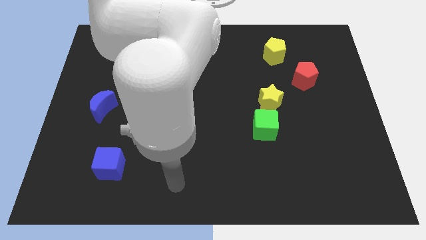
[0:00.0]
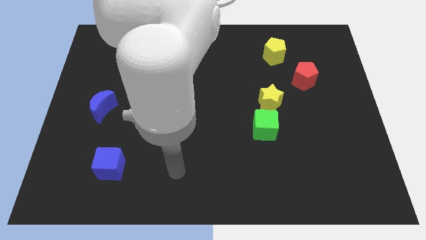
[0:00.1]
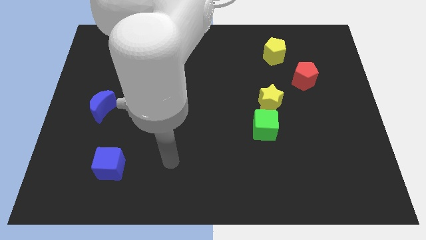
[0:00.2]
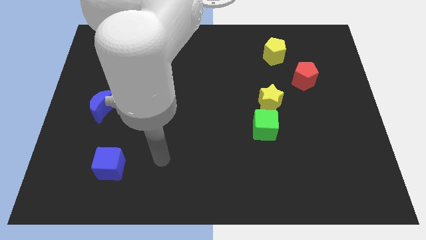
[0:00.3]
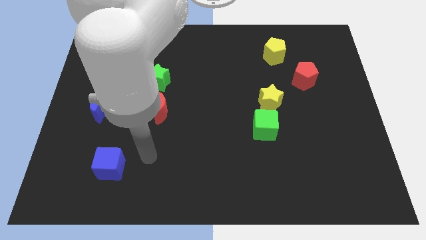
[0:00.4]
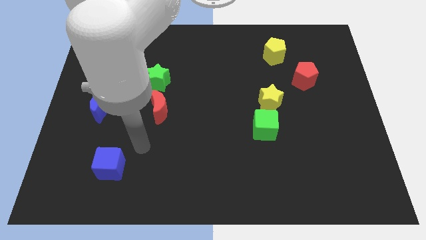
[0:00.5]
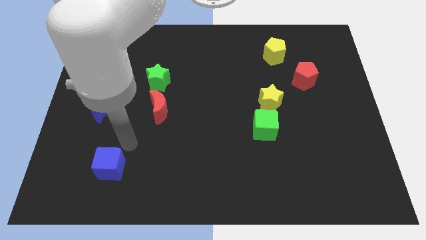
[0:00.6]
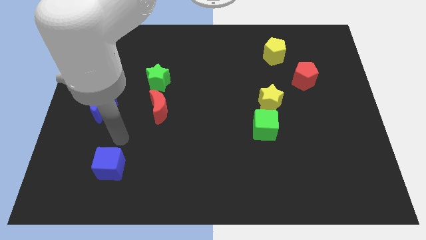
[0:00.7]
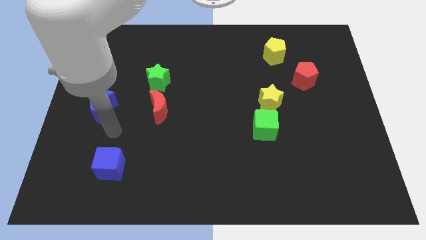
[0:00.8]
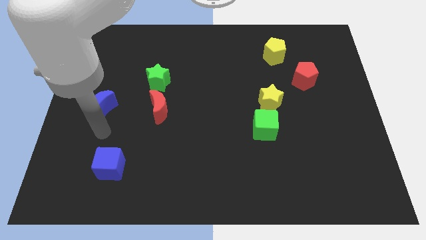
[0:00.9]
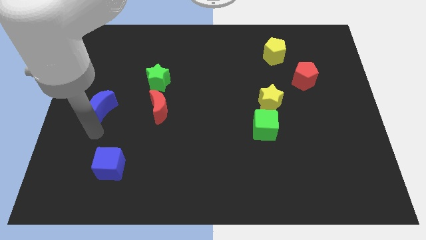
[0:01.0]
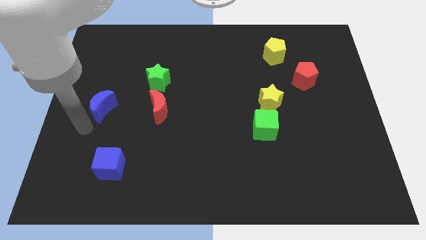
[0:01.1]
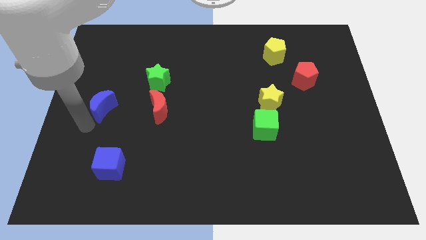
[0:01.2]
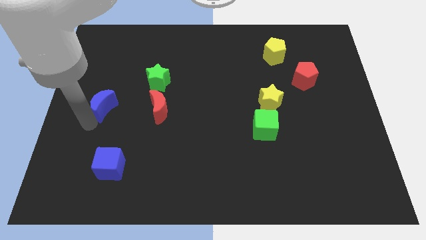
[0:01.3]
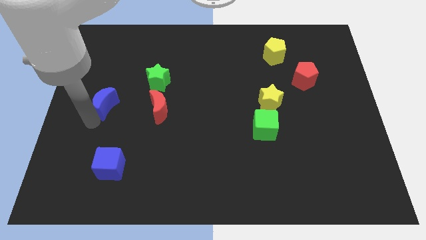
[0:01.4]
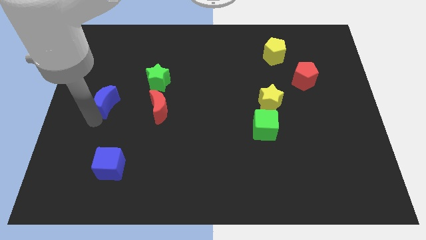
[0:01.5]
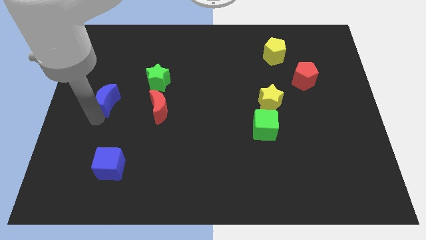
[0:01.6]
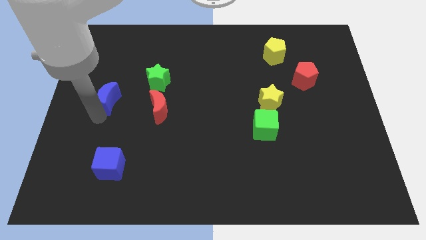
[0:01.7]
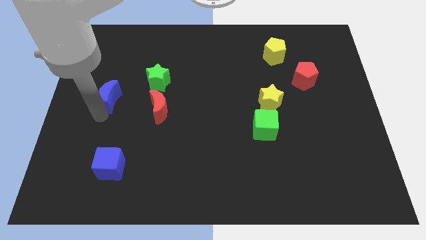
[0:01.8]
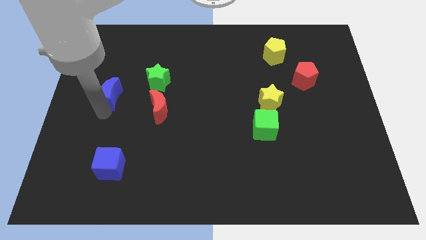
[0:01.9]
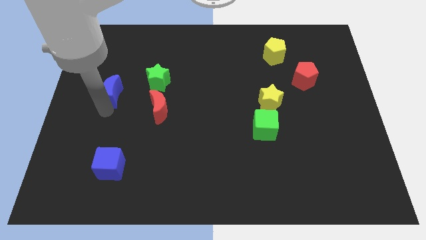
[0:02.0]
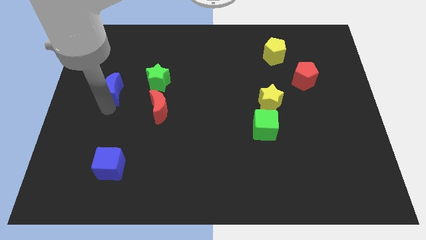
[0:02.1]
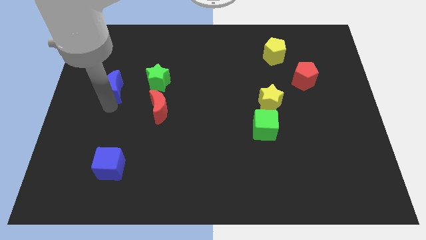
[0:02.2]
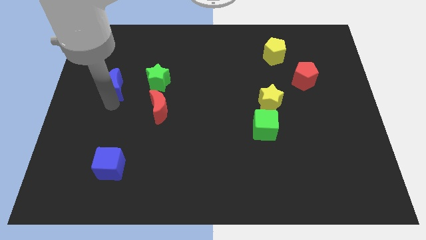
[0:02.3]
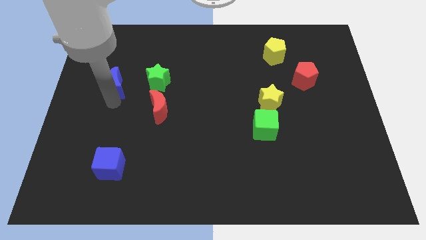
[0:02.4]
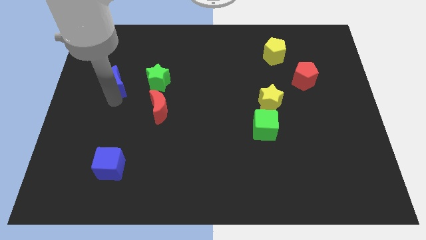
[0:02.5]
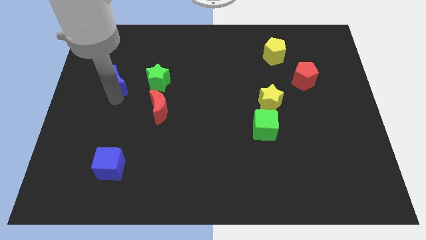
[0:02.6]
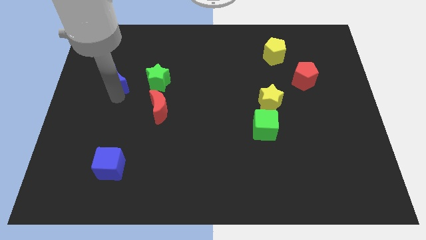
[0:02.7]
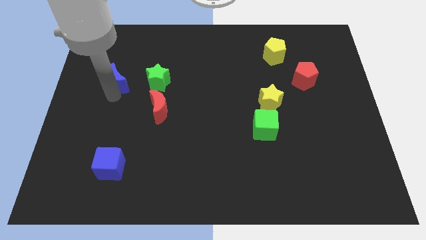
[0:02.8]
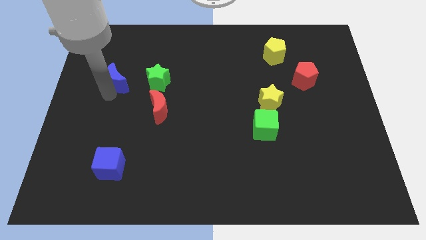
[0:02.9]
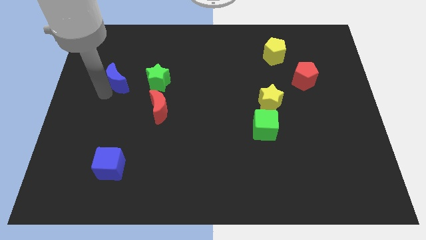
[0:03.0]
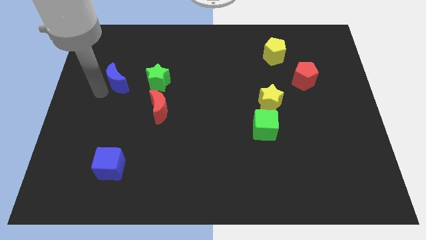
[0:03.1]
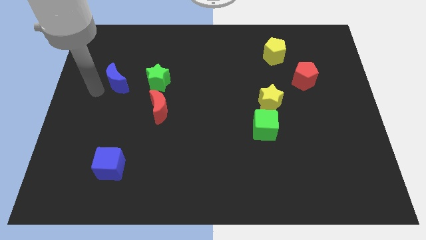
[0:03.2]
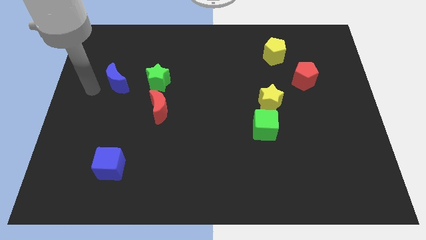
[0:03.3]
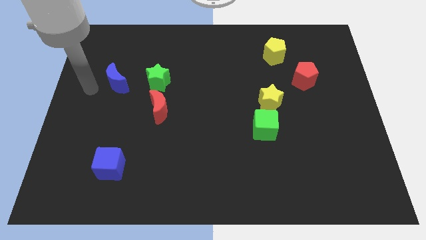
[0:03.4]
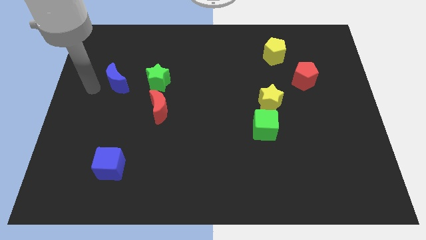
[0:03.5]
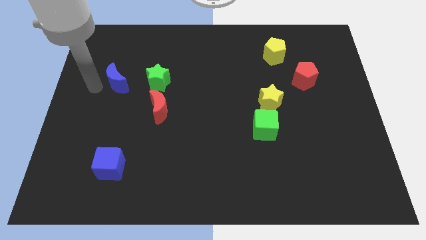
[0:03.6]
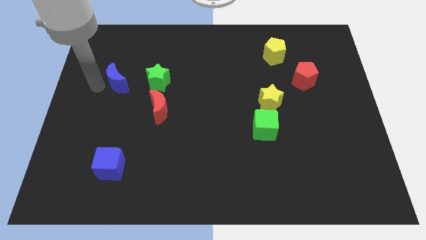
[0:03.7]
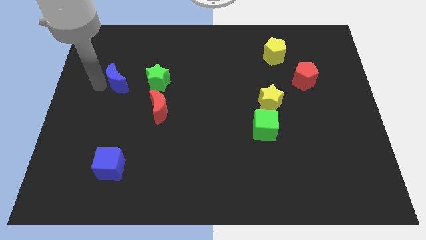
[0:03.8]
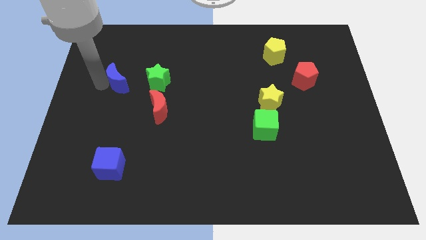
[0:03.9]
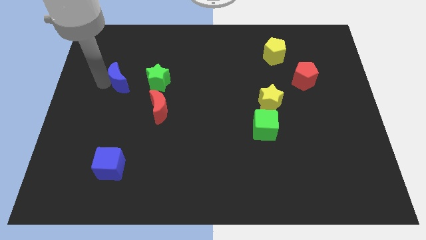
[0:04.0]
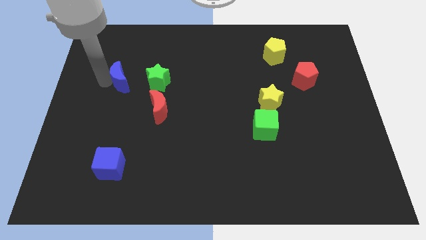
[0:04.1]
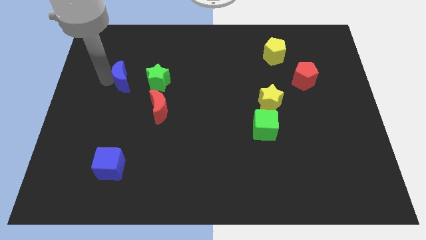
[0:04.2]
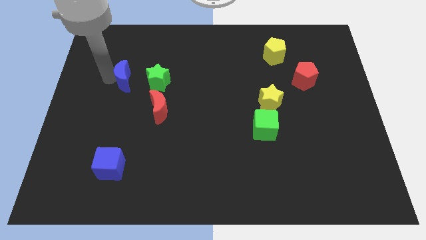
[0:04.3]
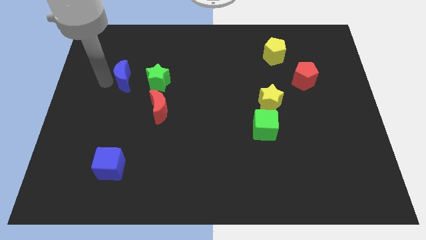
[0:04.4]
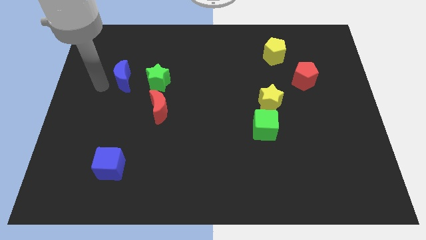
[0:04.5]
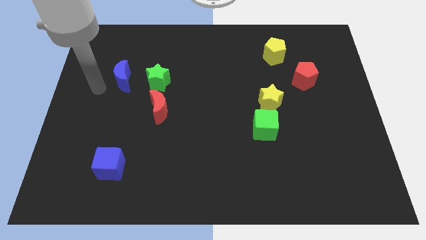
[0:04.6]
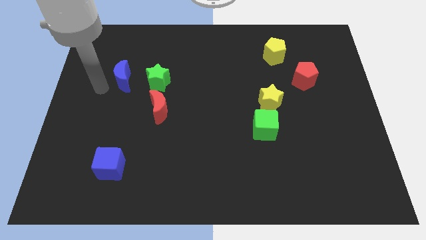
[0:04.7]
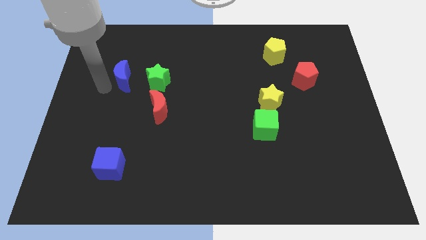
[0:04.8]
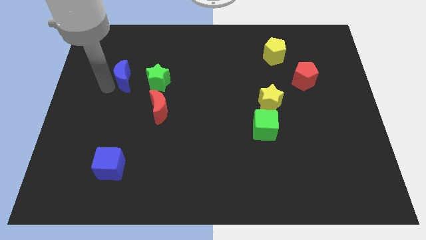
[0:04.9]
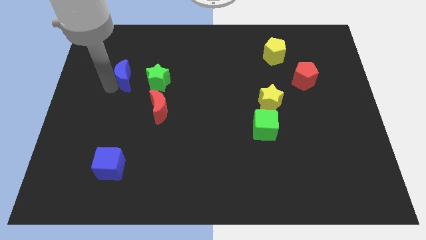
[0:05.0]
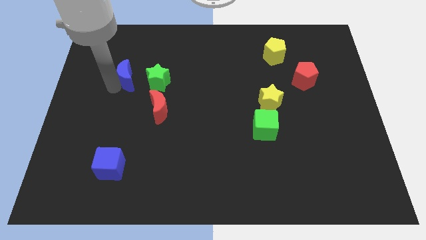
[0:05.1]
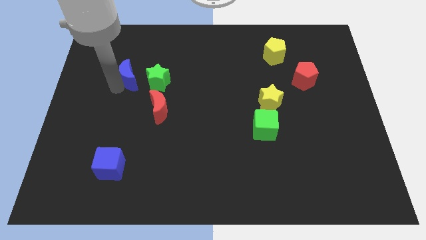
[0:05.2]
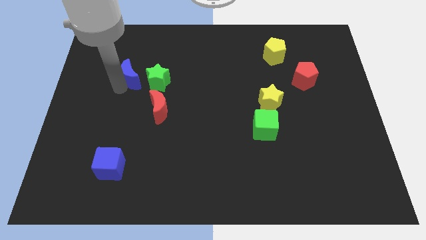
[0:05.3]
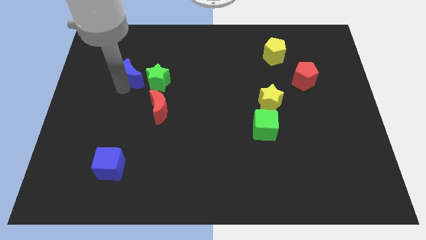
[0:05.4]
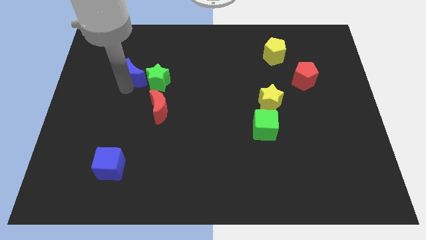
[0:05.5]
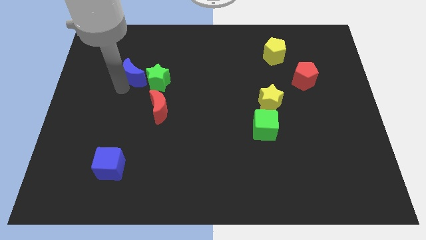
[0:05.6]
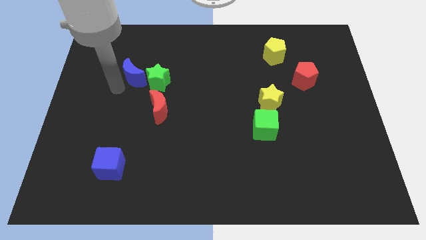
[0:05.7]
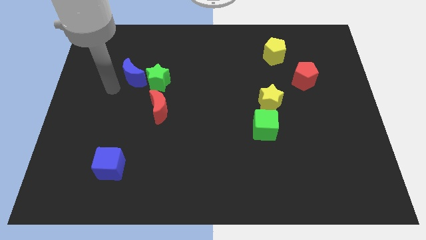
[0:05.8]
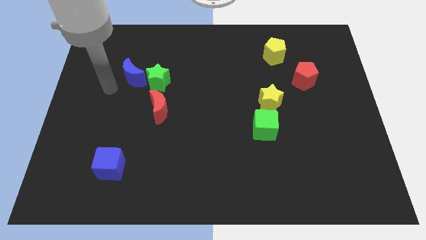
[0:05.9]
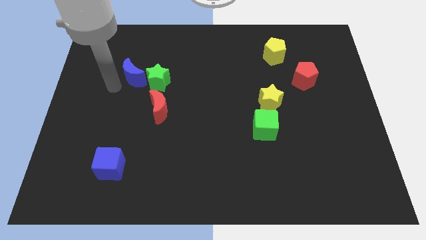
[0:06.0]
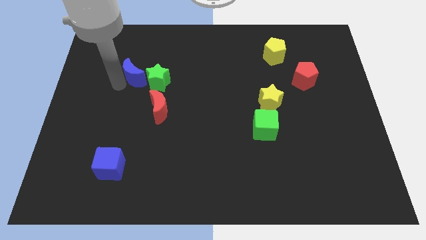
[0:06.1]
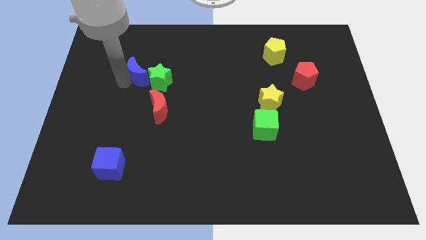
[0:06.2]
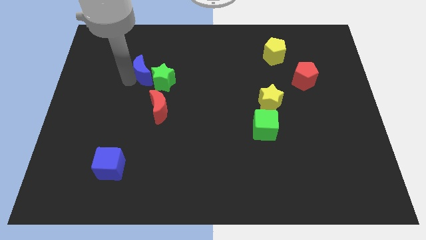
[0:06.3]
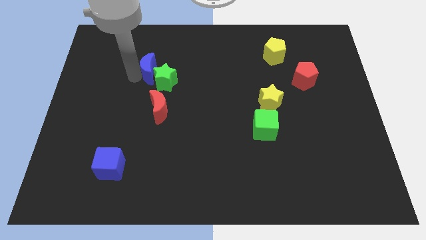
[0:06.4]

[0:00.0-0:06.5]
push the blue moon above the red moon

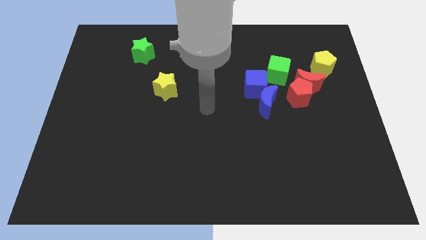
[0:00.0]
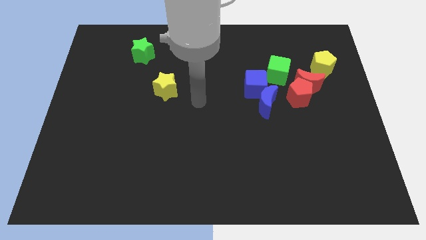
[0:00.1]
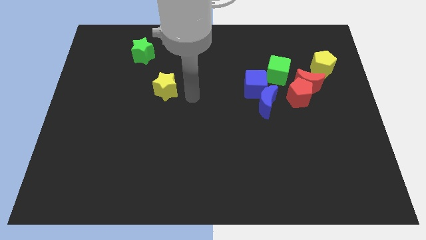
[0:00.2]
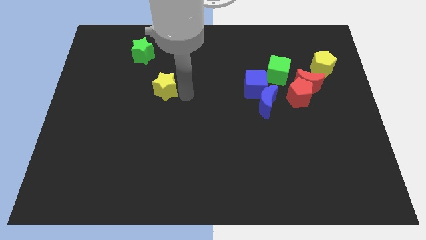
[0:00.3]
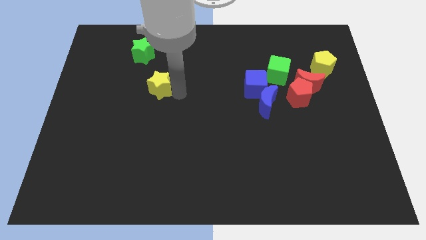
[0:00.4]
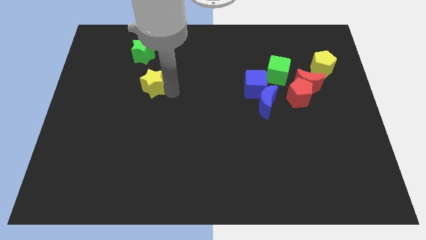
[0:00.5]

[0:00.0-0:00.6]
put the yellow star below the green star
